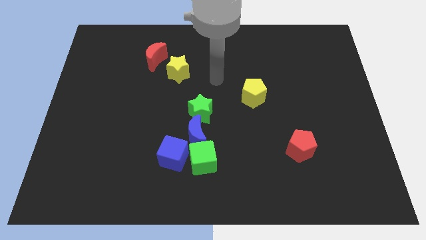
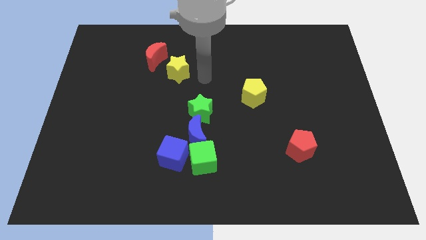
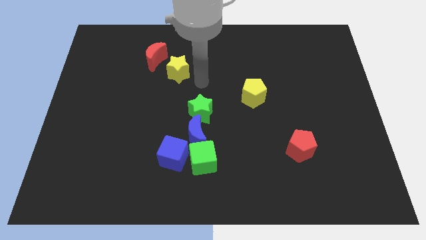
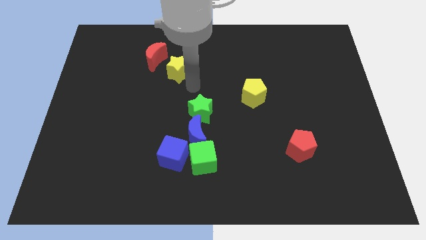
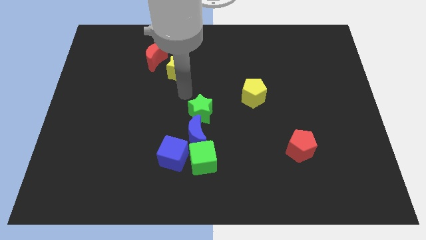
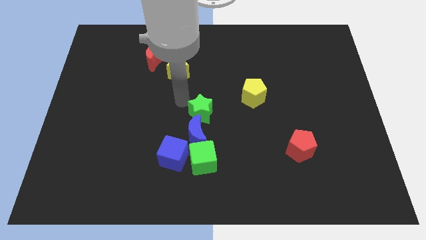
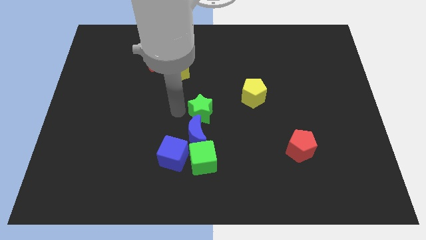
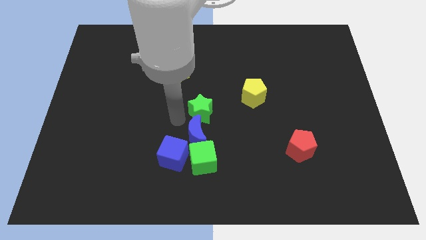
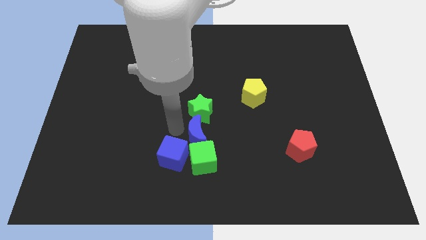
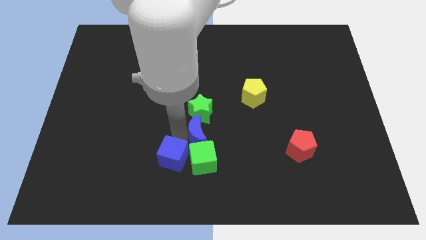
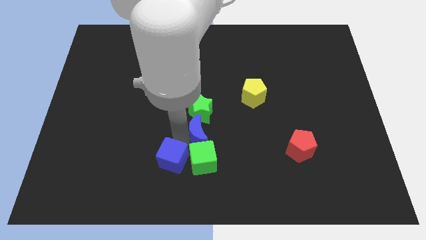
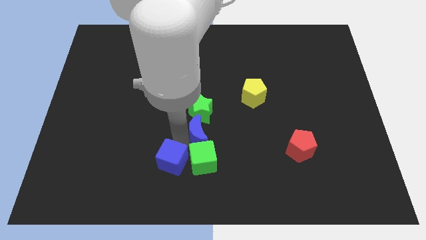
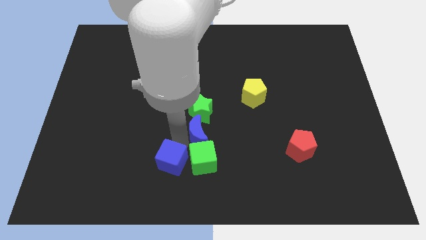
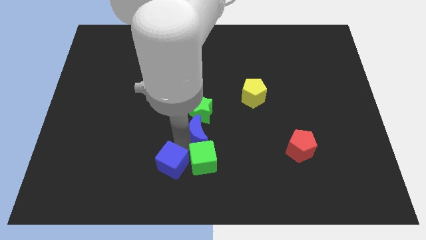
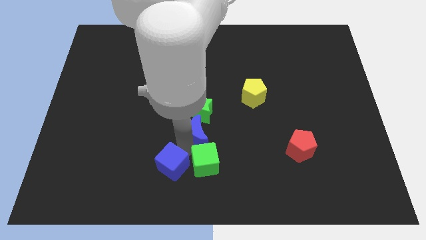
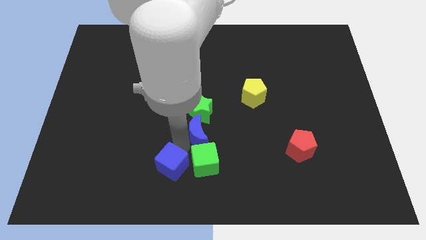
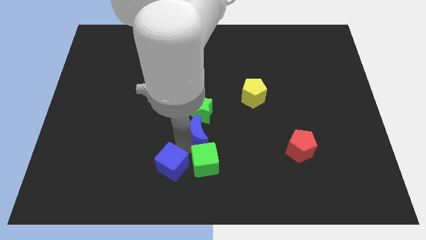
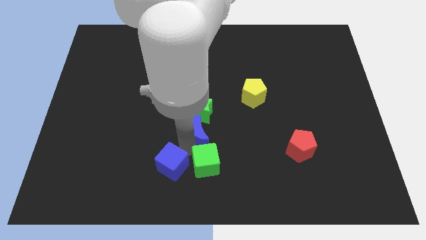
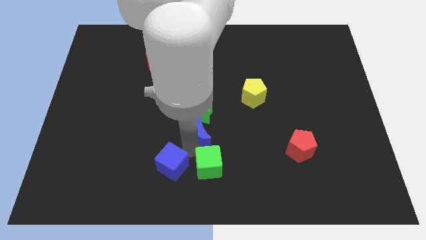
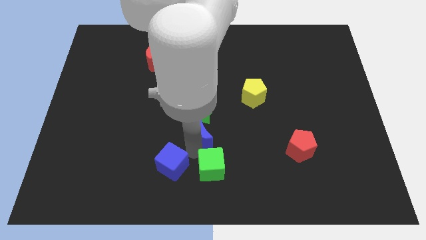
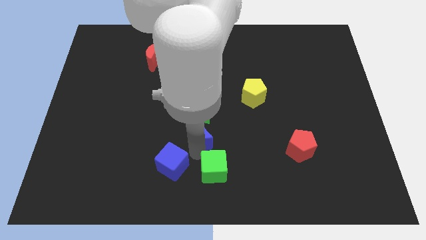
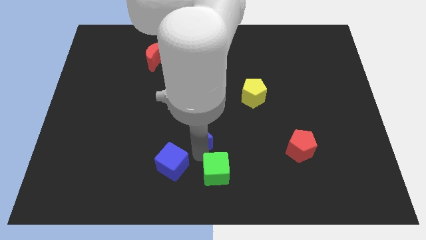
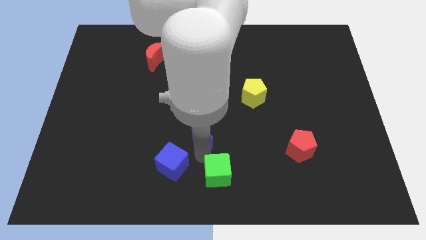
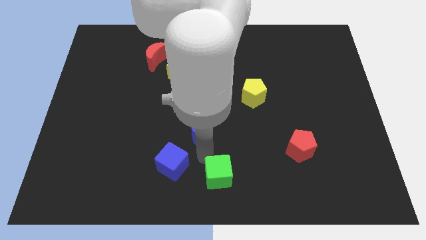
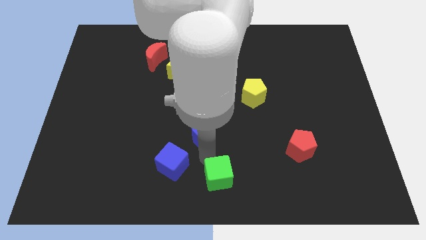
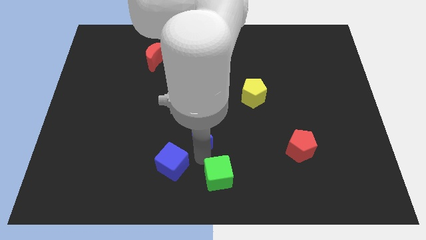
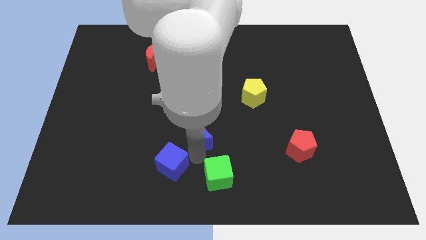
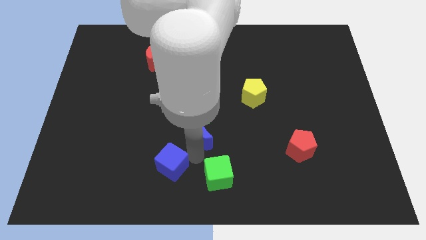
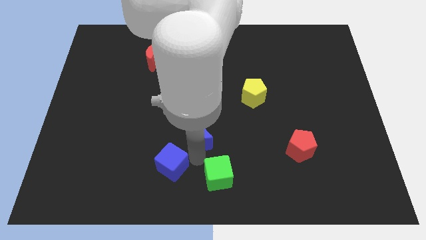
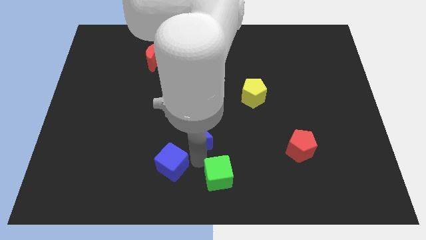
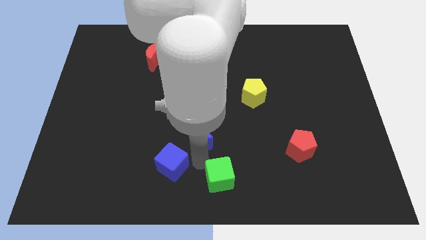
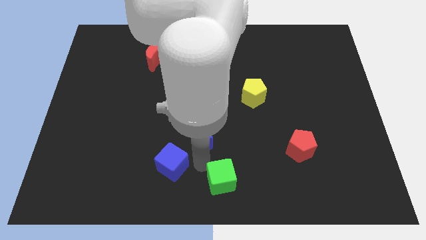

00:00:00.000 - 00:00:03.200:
move the green cube away from the blue moon and blue cube

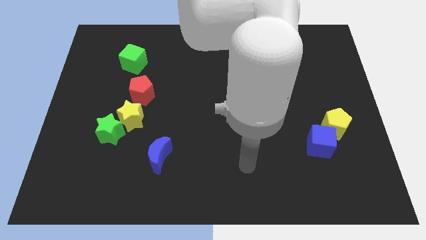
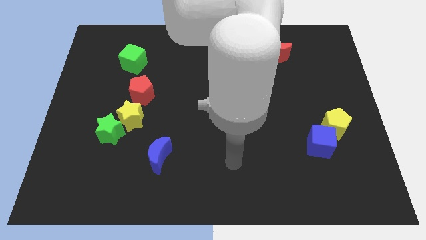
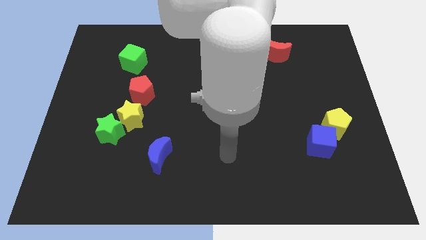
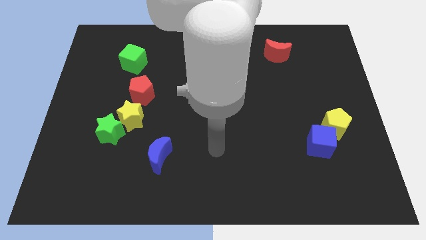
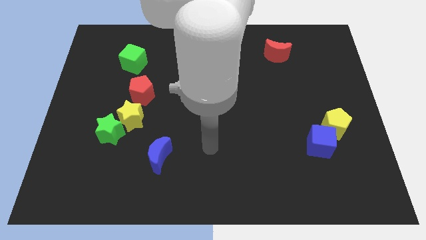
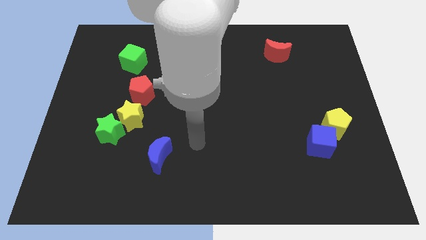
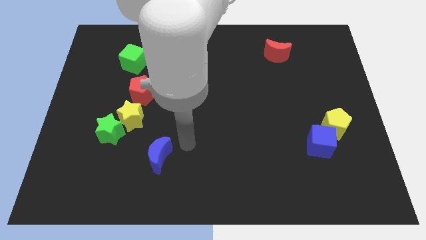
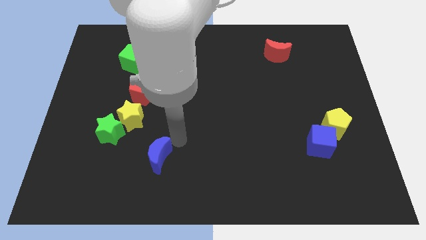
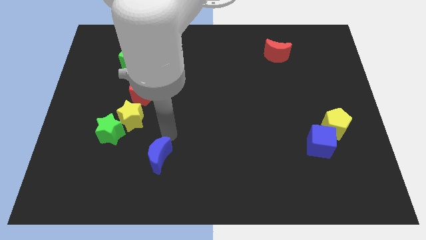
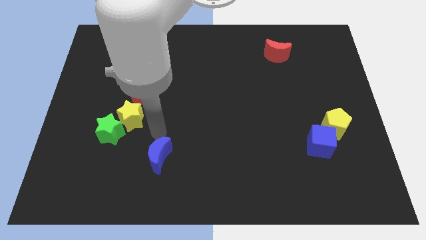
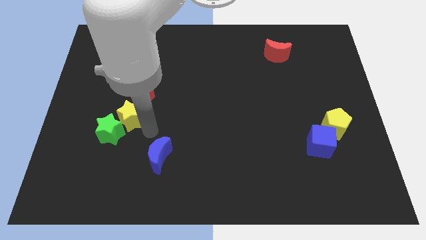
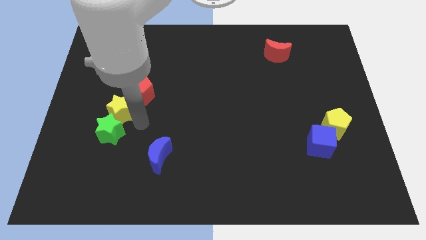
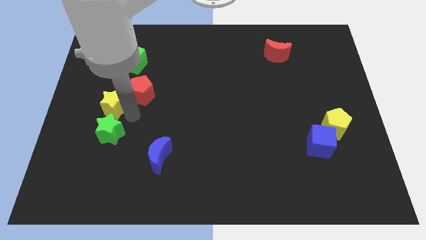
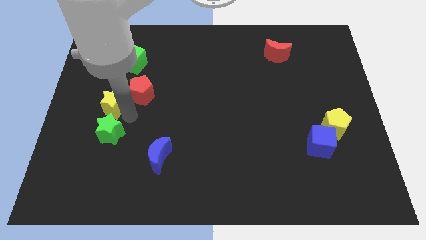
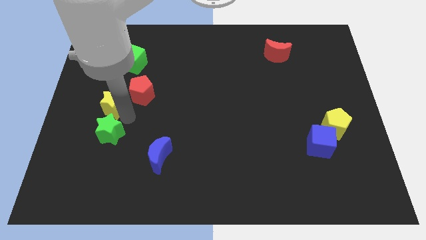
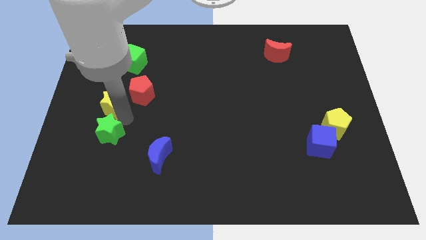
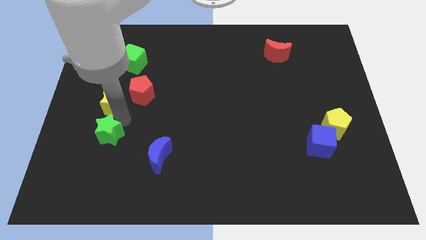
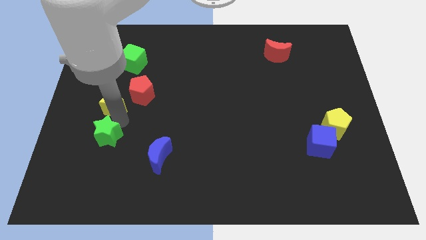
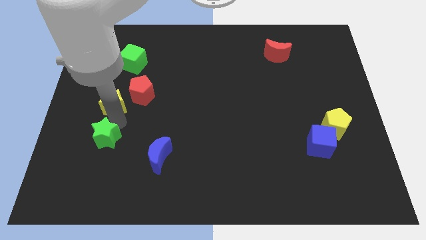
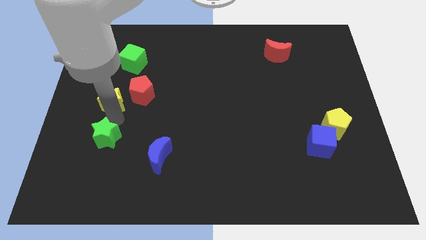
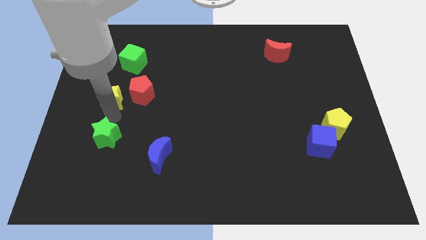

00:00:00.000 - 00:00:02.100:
pull the green star apart from the yellow star

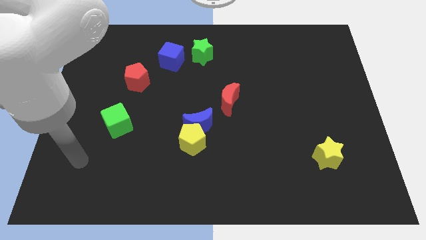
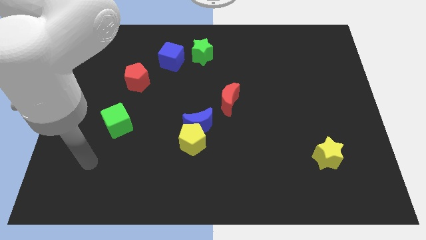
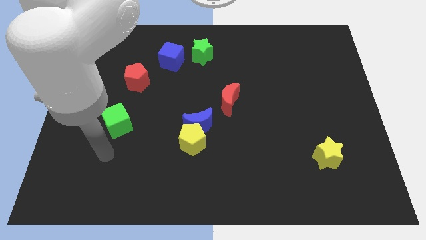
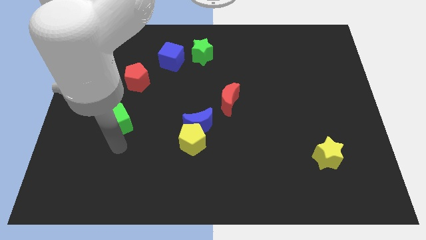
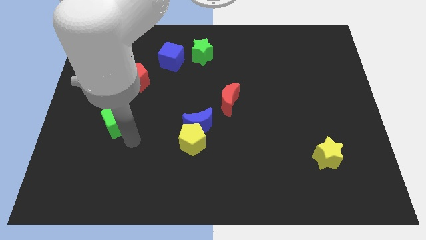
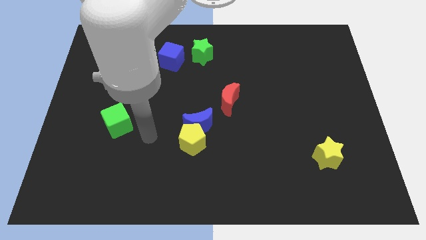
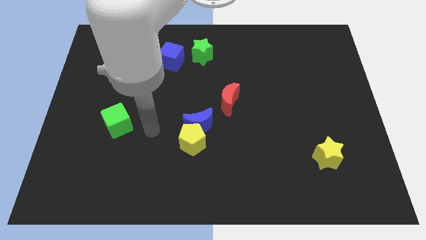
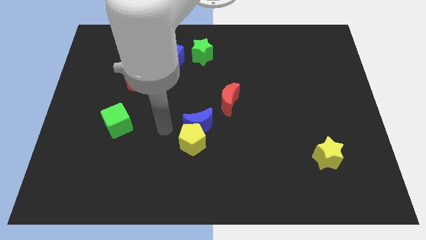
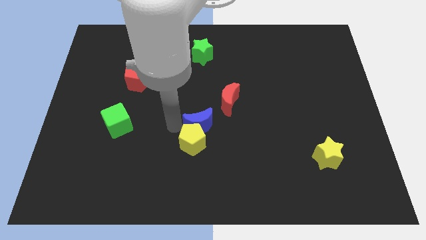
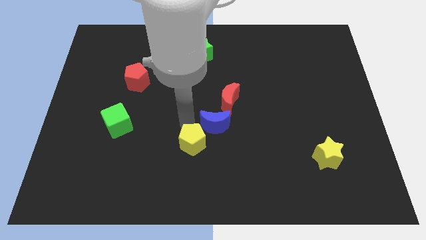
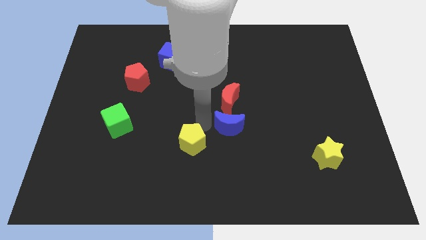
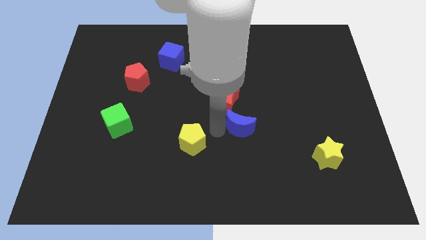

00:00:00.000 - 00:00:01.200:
pull the yellow pentagon apart from the blue moon

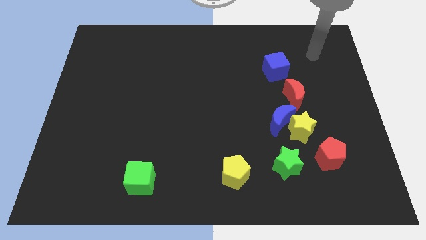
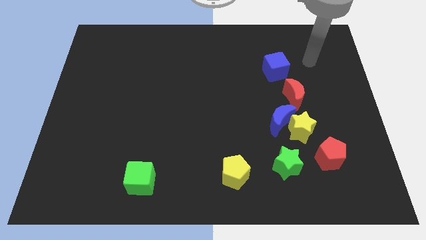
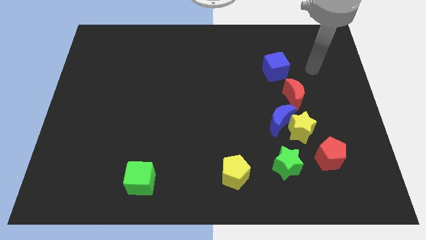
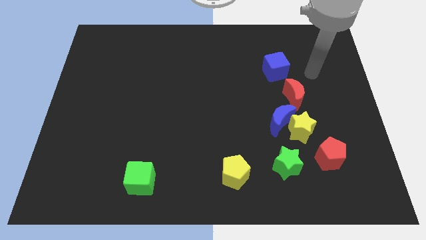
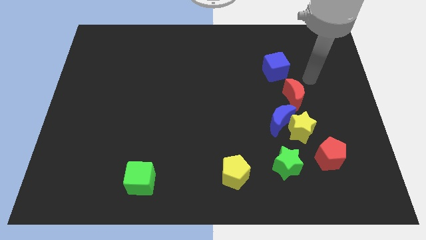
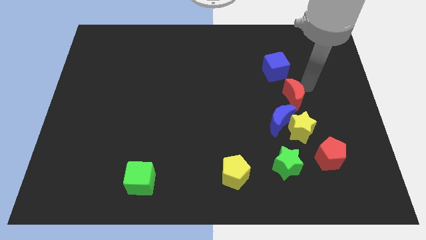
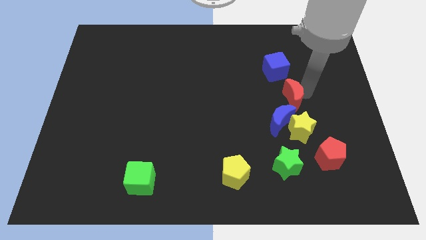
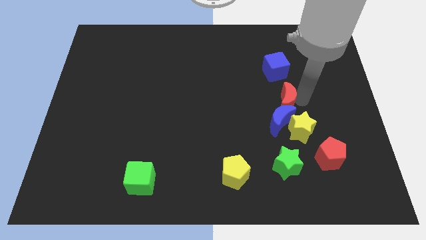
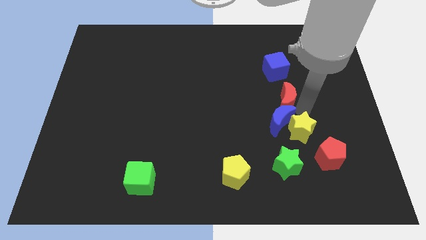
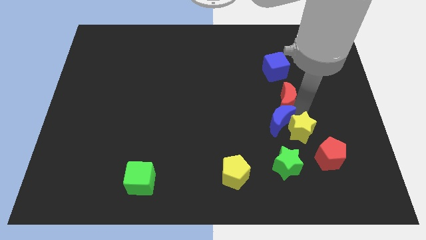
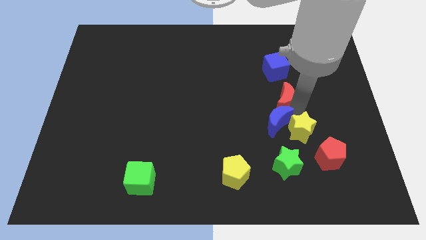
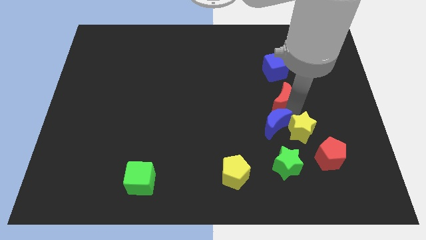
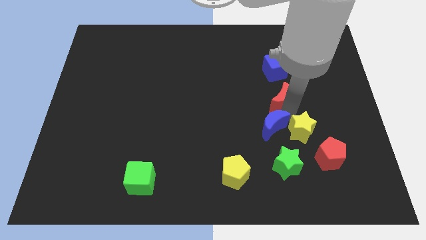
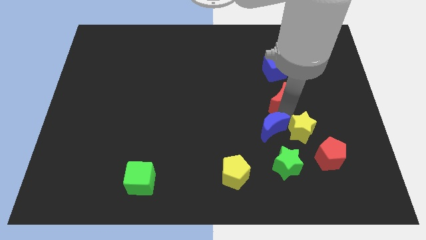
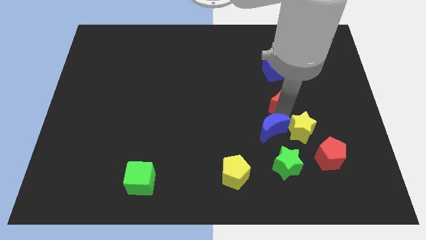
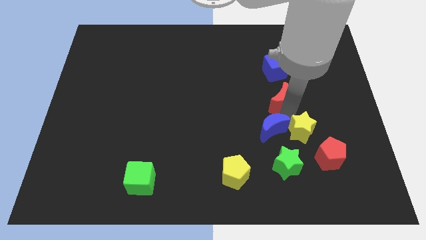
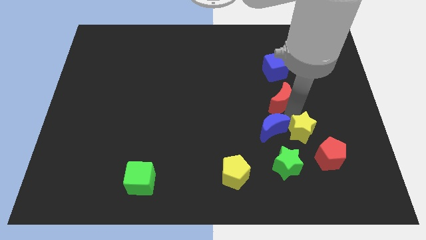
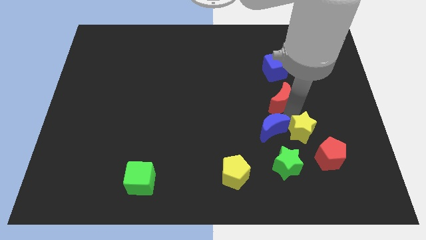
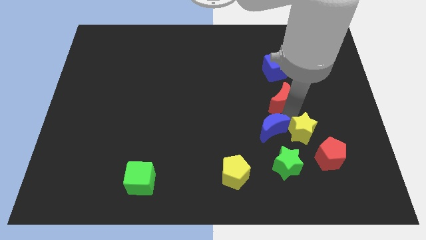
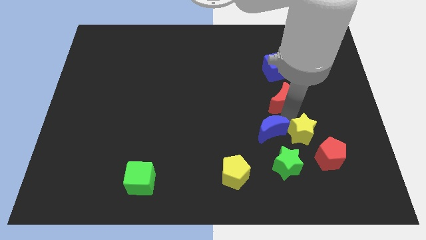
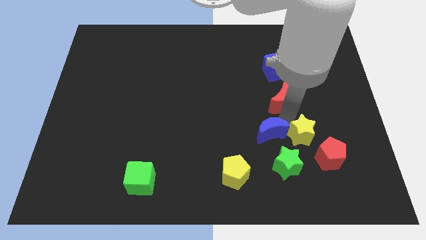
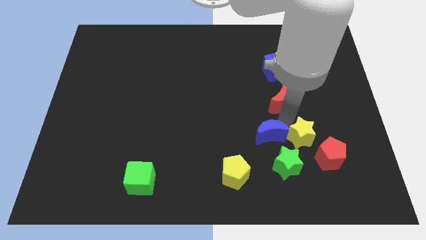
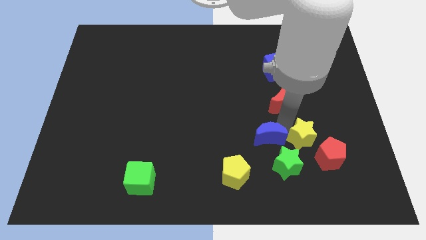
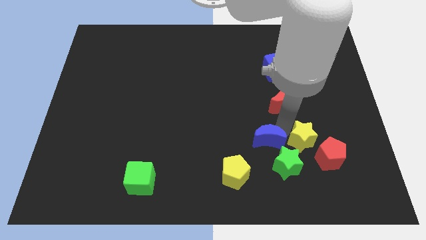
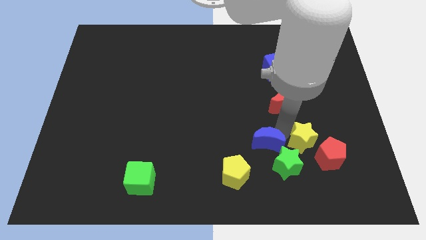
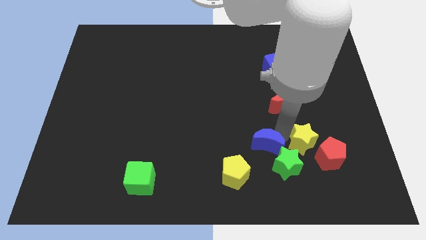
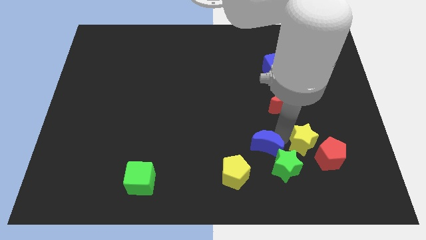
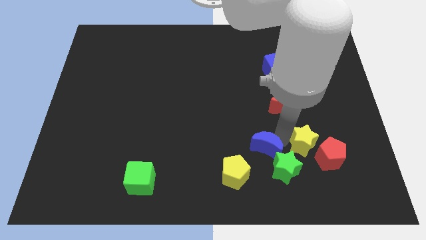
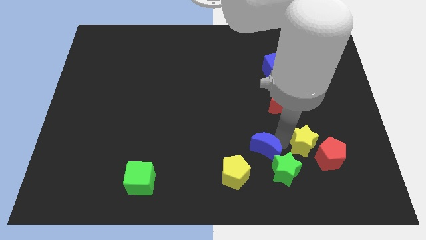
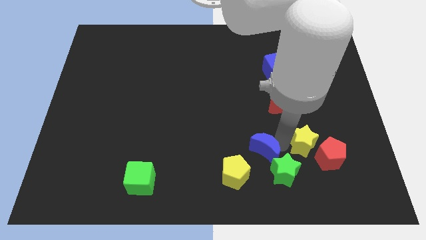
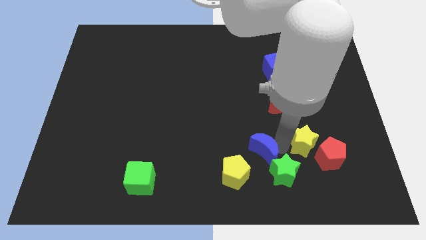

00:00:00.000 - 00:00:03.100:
pull the blue moon apart from the yellow star and red moon
